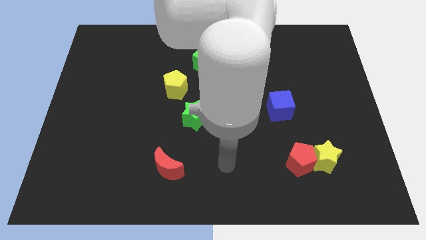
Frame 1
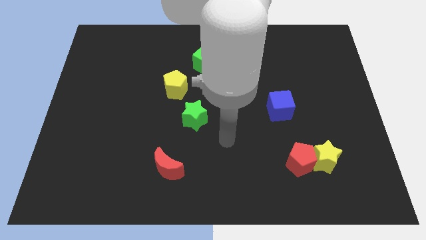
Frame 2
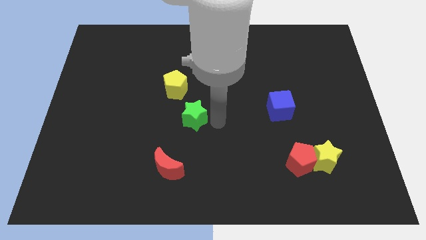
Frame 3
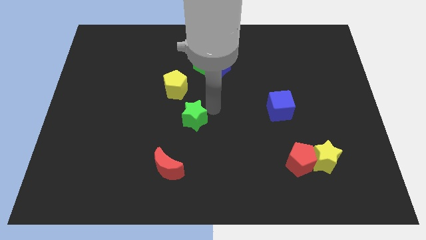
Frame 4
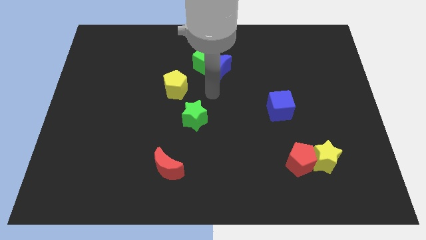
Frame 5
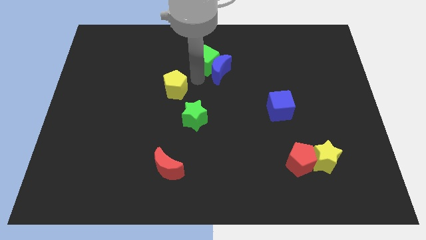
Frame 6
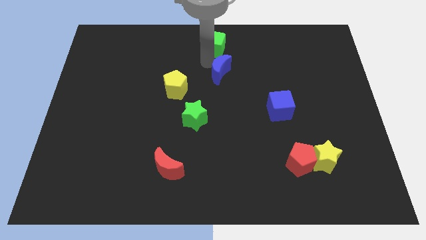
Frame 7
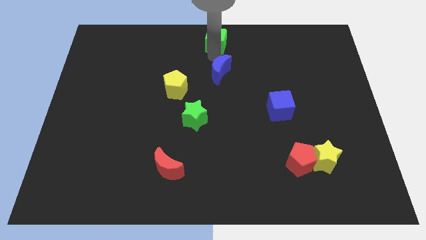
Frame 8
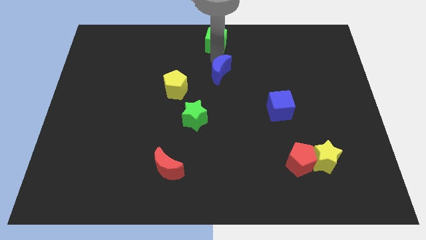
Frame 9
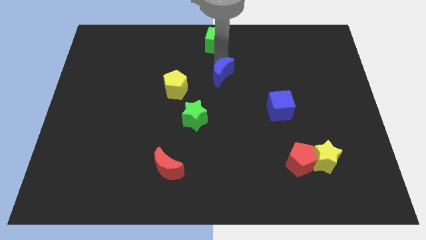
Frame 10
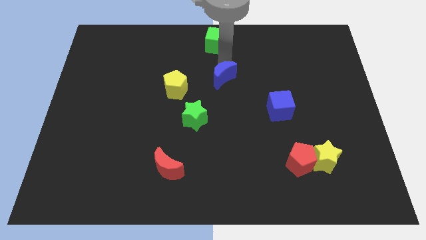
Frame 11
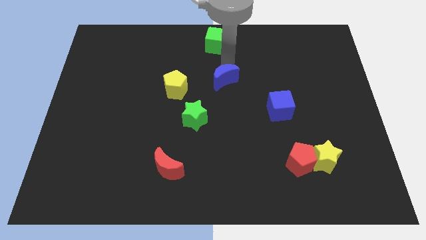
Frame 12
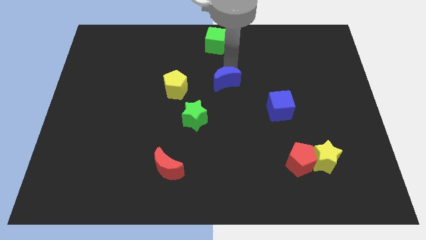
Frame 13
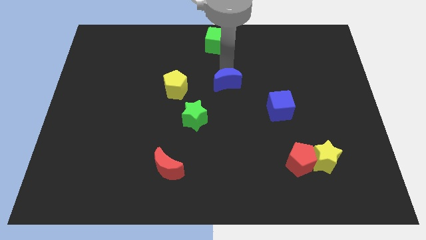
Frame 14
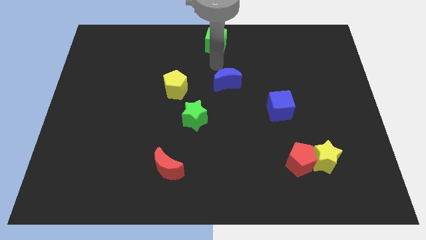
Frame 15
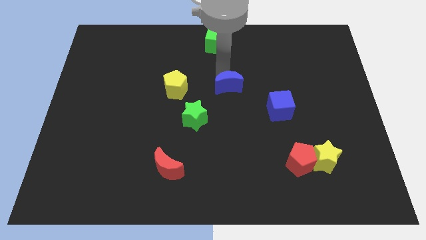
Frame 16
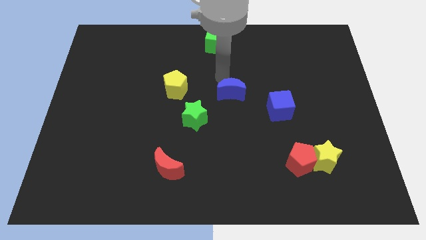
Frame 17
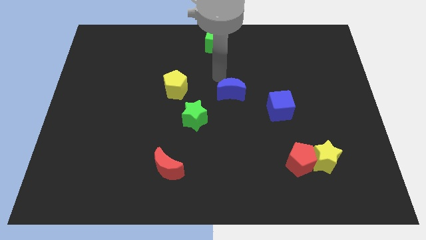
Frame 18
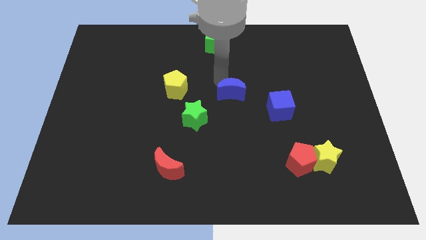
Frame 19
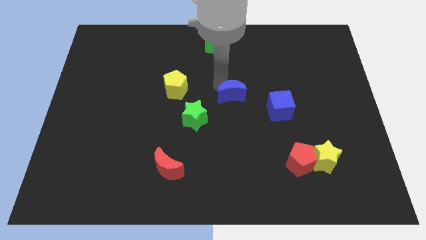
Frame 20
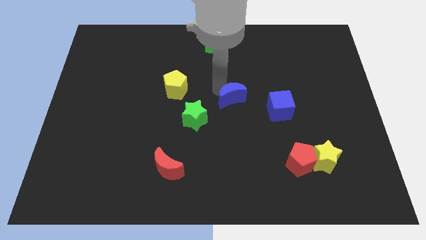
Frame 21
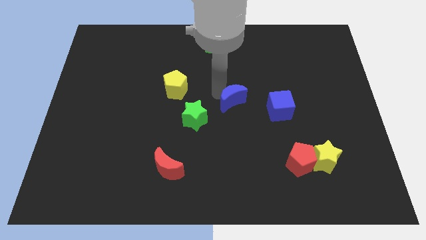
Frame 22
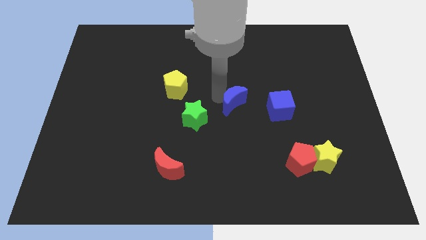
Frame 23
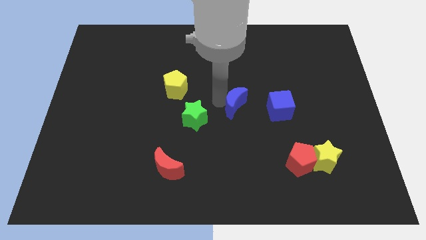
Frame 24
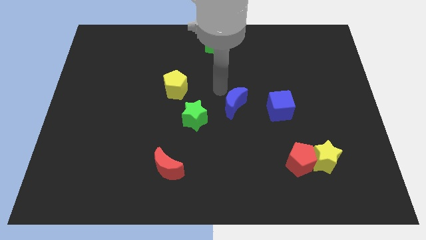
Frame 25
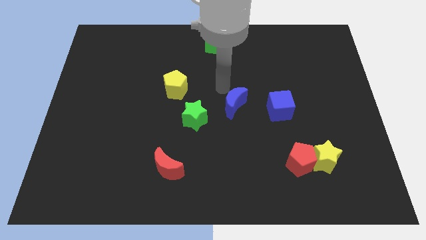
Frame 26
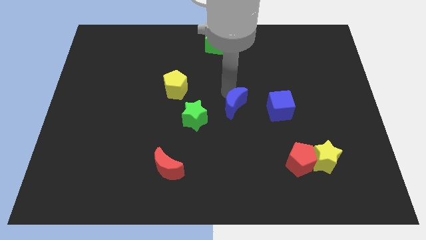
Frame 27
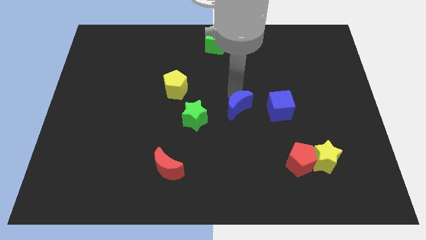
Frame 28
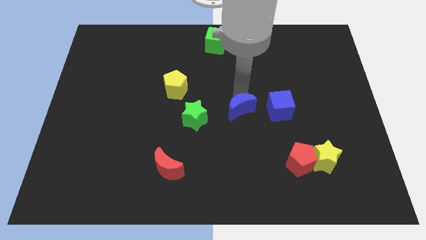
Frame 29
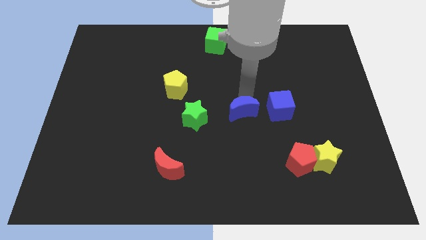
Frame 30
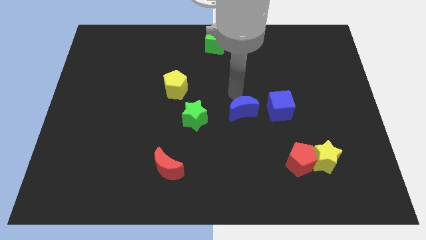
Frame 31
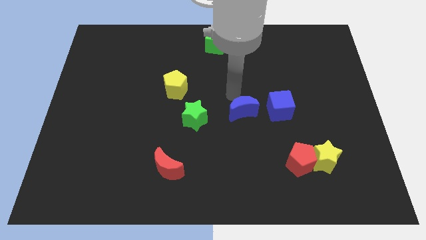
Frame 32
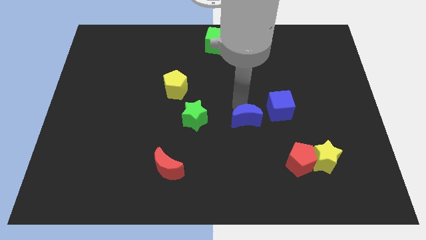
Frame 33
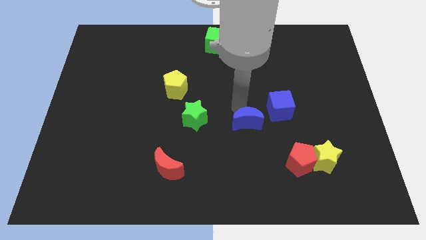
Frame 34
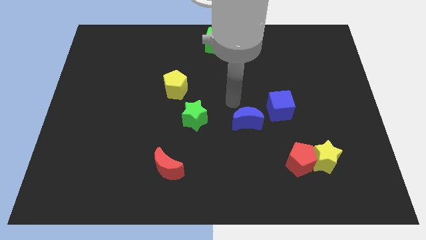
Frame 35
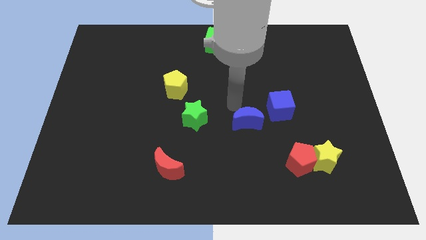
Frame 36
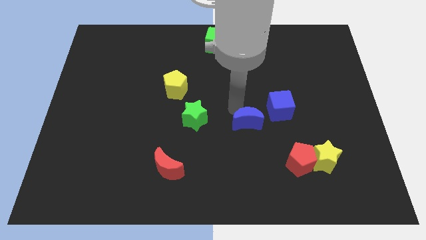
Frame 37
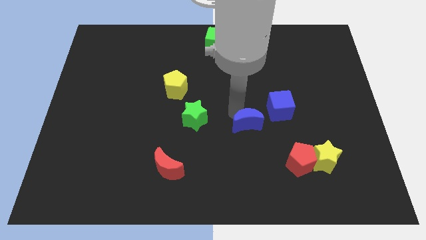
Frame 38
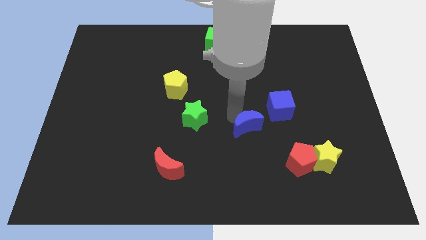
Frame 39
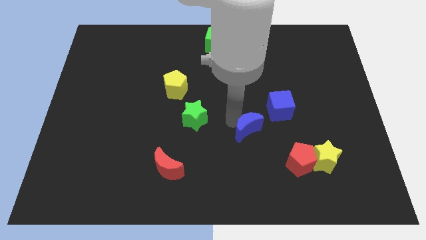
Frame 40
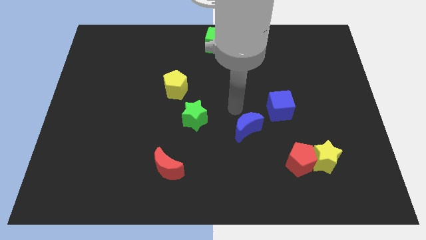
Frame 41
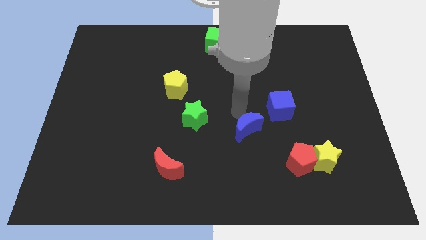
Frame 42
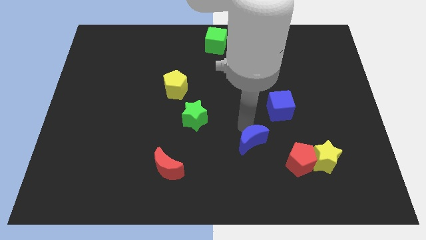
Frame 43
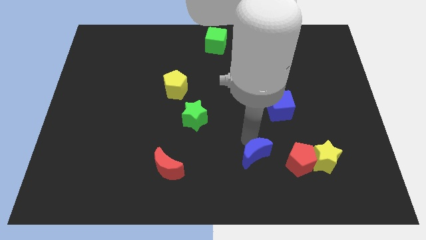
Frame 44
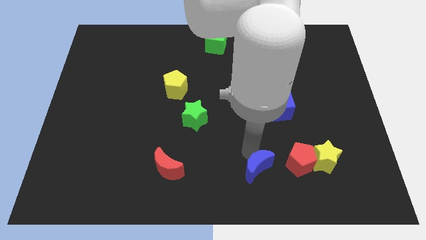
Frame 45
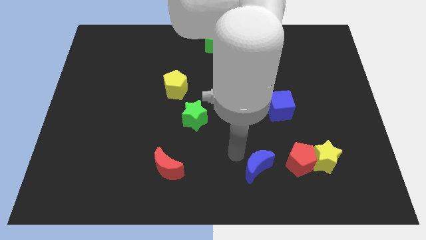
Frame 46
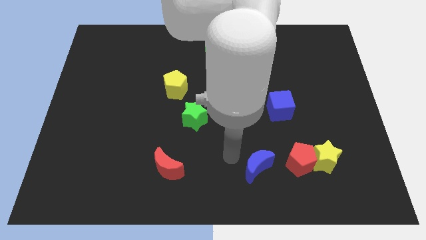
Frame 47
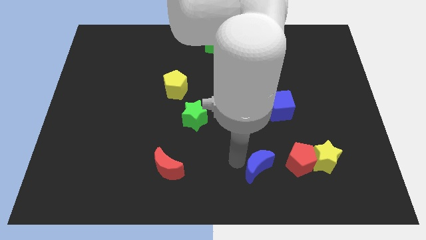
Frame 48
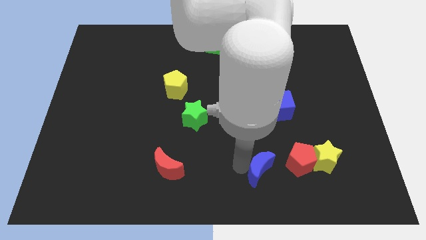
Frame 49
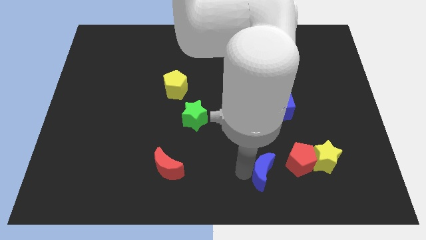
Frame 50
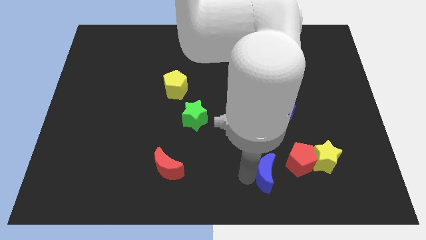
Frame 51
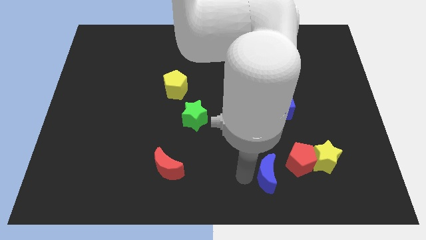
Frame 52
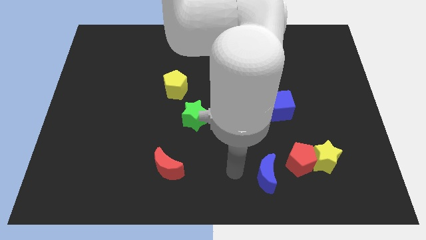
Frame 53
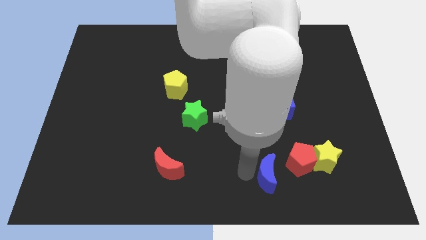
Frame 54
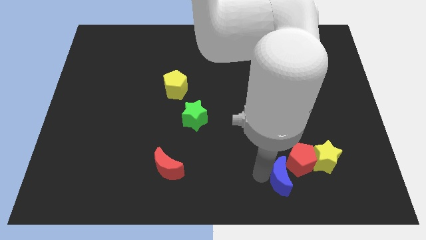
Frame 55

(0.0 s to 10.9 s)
slide the blue moon to the bottom left of the yellow star

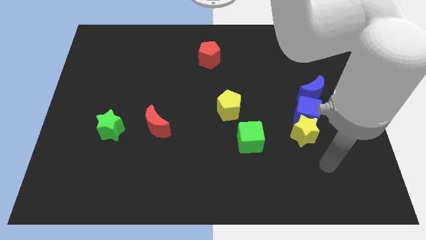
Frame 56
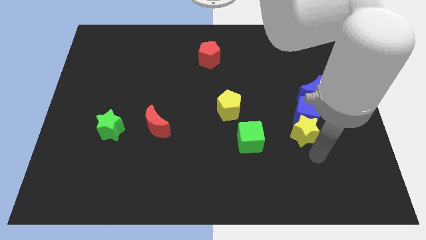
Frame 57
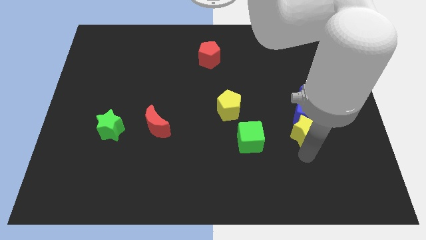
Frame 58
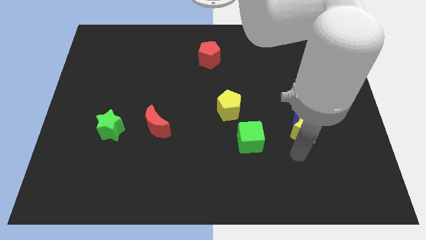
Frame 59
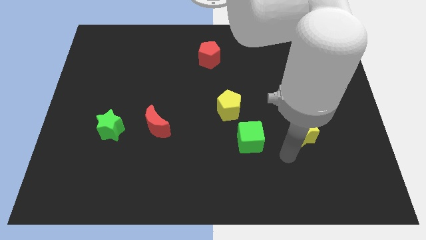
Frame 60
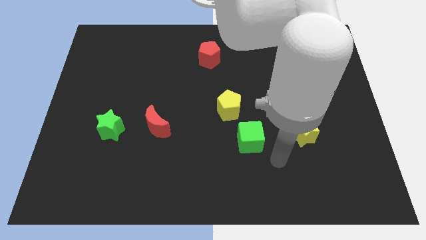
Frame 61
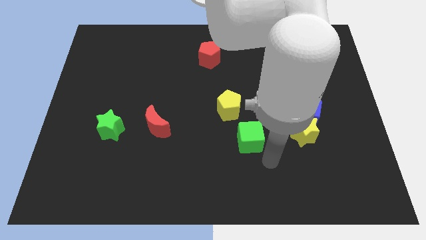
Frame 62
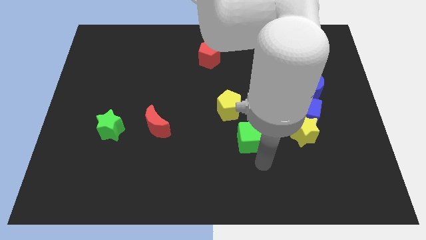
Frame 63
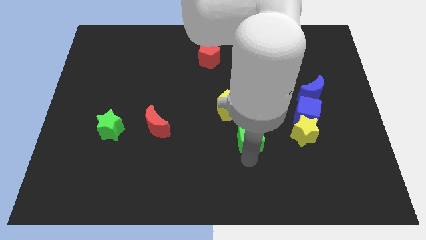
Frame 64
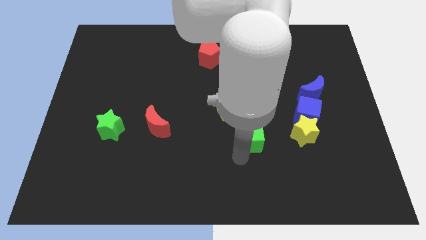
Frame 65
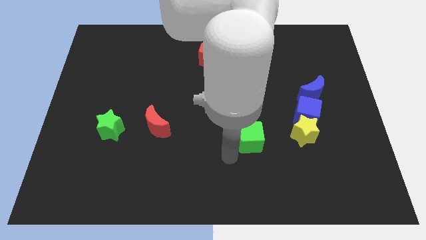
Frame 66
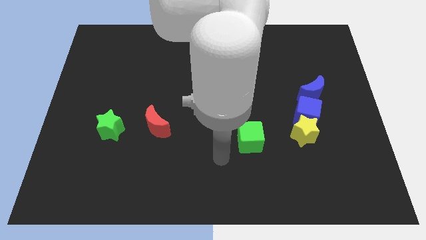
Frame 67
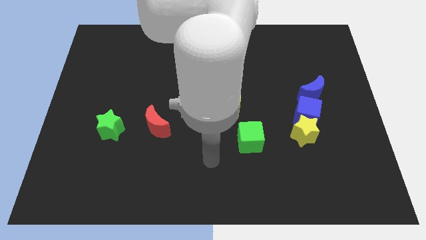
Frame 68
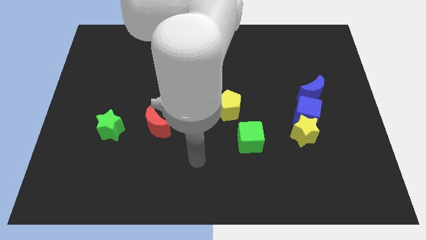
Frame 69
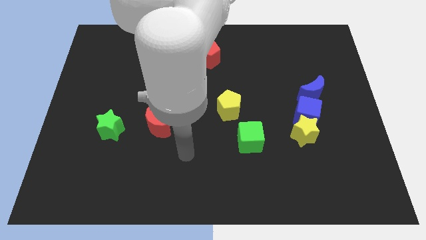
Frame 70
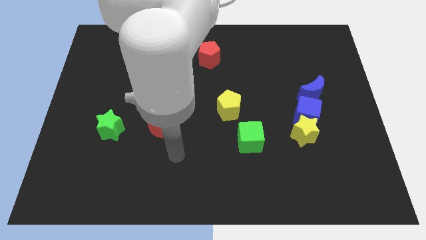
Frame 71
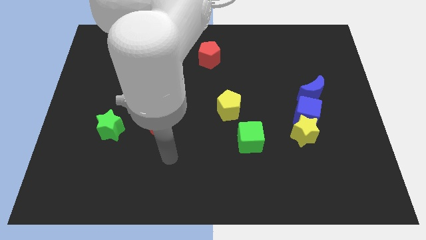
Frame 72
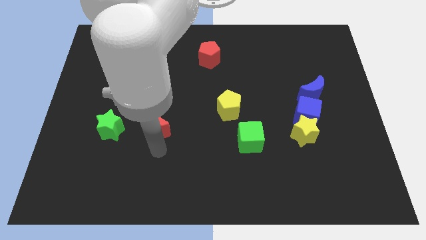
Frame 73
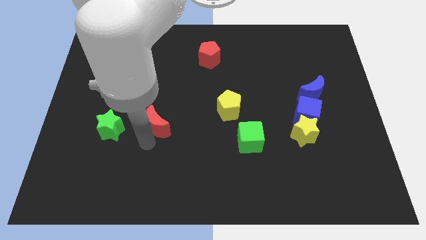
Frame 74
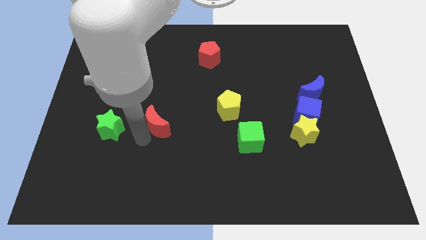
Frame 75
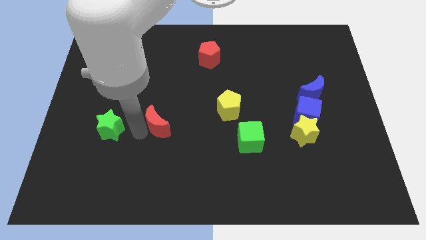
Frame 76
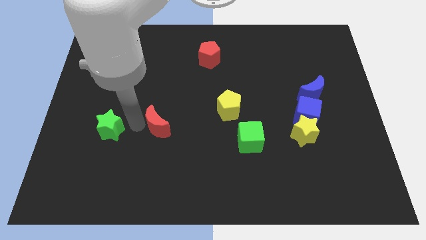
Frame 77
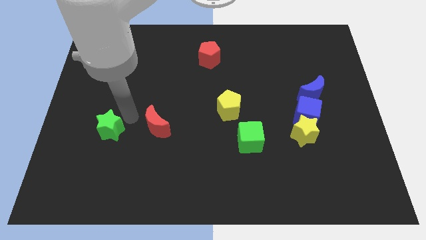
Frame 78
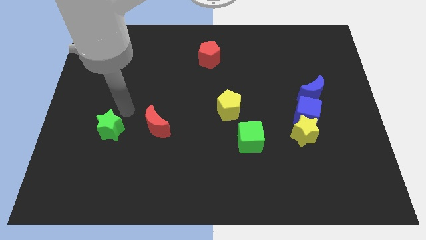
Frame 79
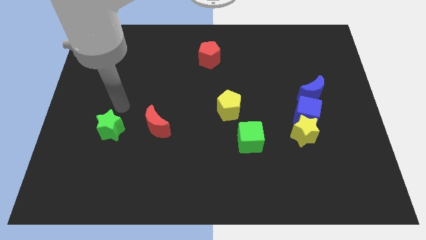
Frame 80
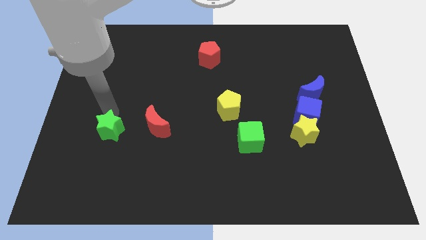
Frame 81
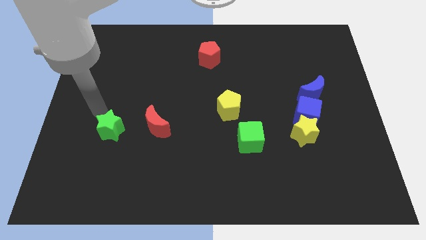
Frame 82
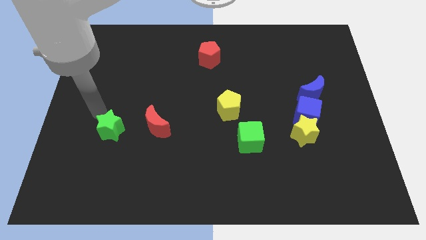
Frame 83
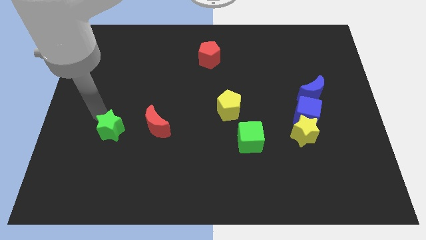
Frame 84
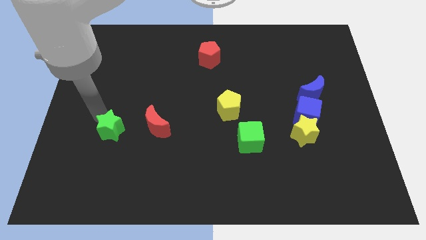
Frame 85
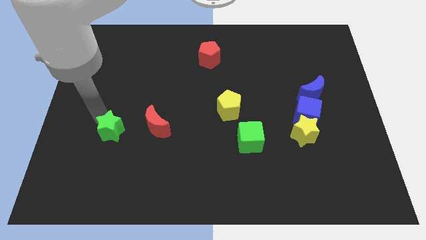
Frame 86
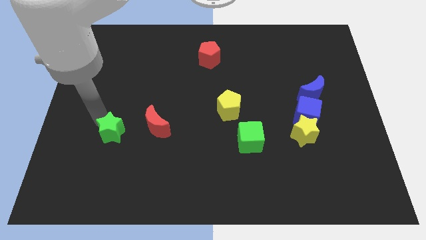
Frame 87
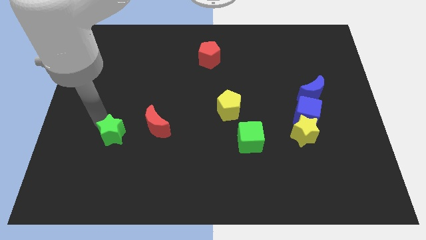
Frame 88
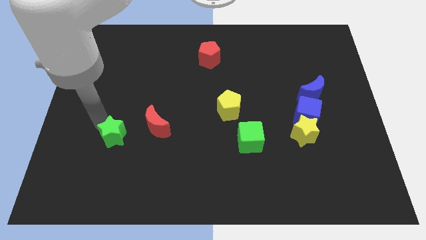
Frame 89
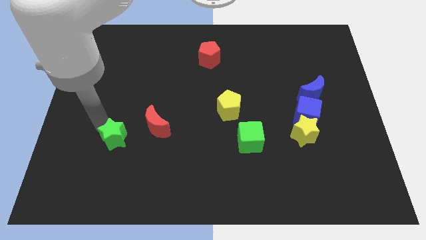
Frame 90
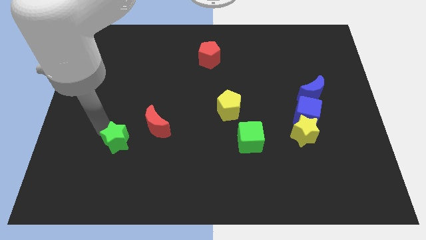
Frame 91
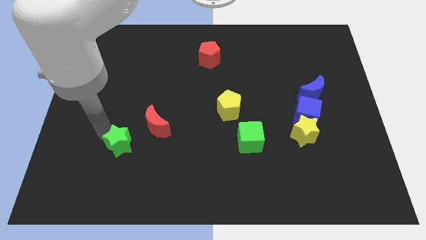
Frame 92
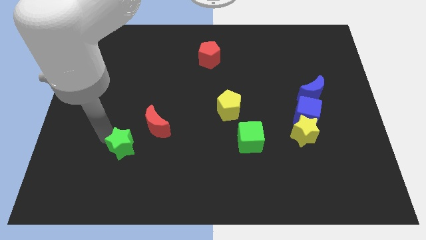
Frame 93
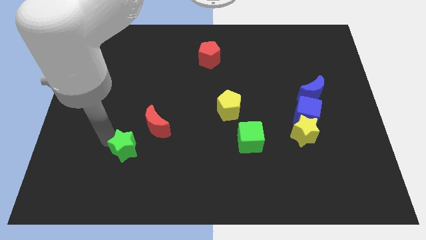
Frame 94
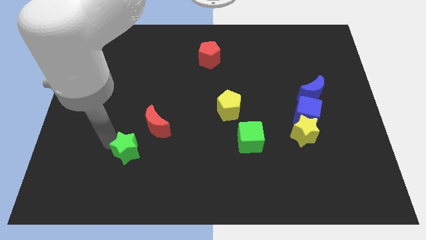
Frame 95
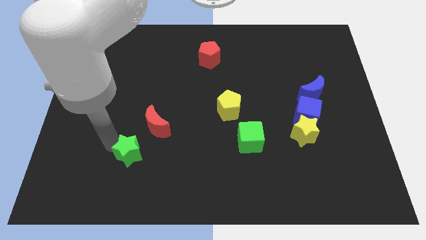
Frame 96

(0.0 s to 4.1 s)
push the green star below the red moon
